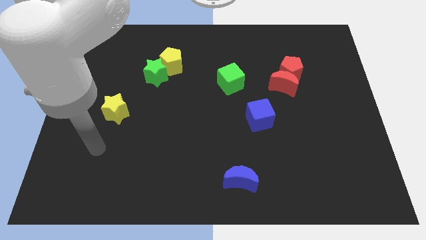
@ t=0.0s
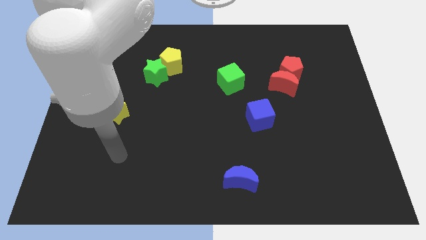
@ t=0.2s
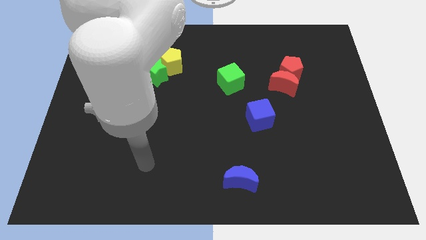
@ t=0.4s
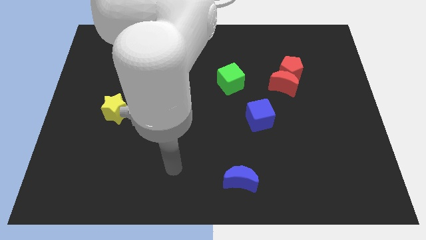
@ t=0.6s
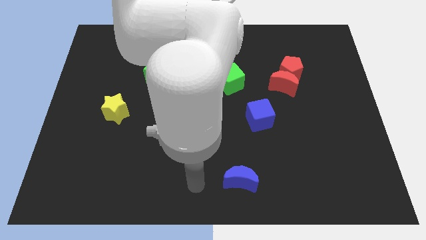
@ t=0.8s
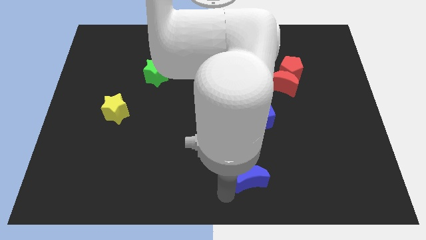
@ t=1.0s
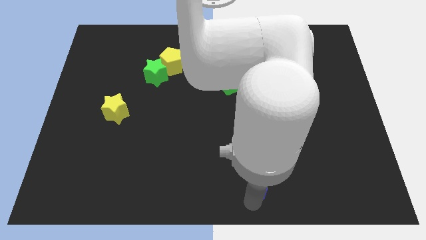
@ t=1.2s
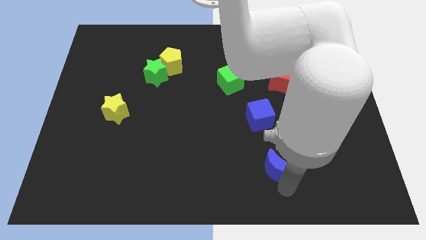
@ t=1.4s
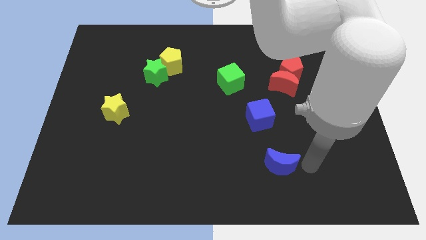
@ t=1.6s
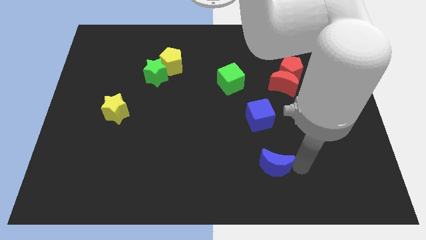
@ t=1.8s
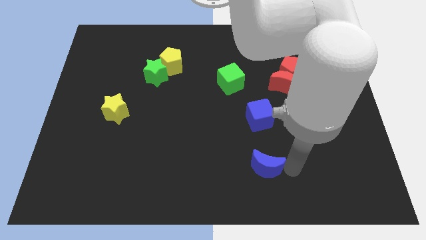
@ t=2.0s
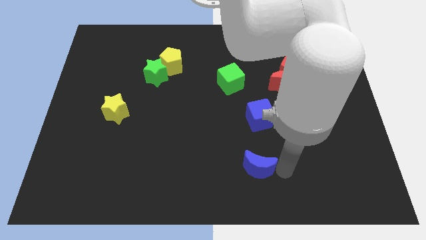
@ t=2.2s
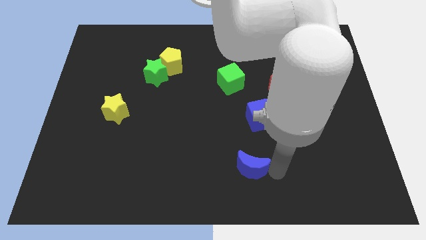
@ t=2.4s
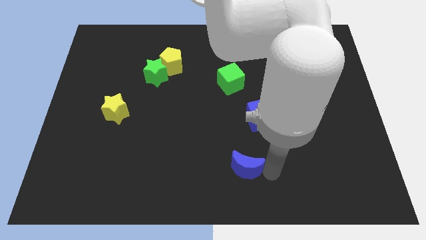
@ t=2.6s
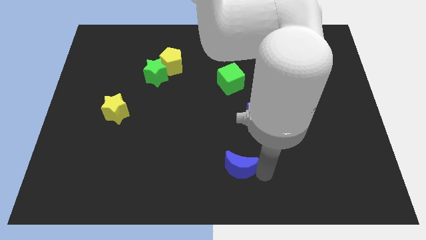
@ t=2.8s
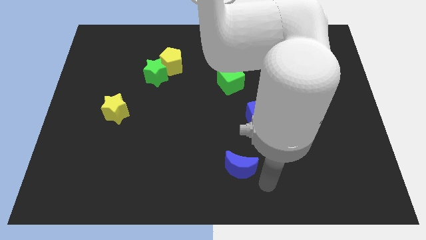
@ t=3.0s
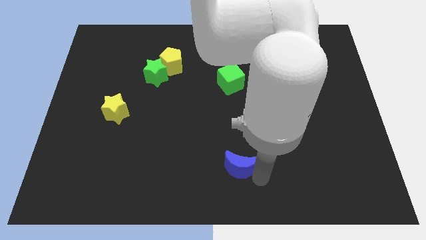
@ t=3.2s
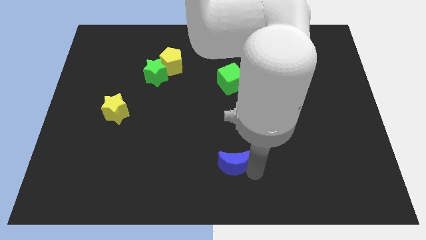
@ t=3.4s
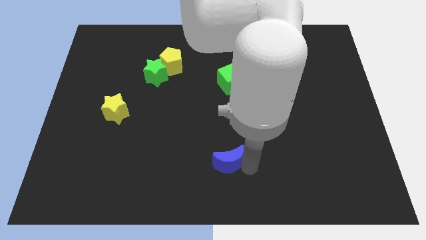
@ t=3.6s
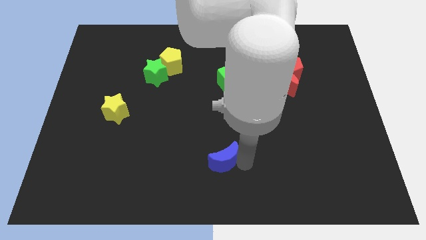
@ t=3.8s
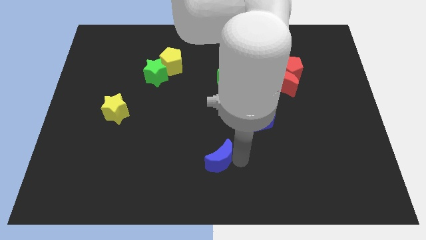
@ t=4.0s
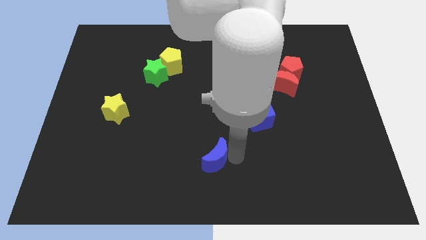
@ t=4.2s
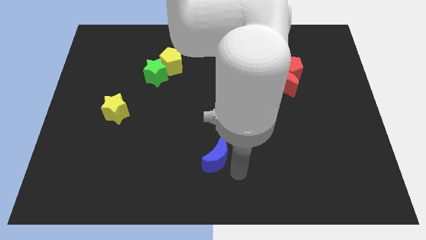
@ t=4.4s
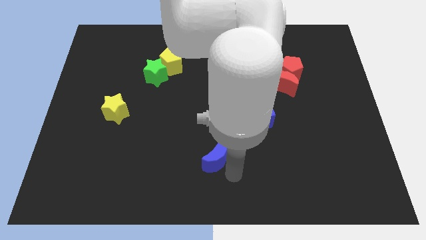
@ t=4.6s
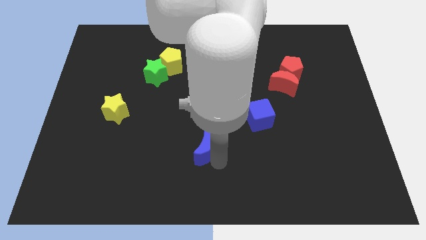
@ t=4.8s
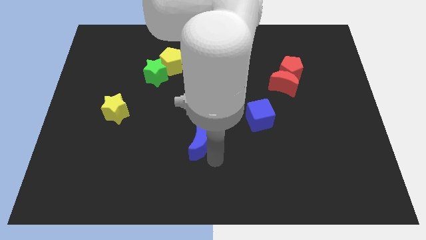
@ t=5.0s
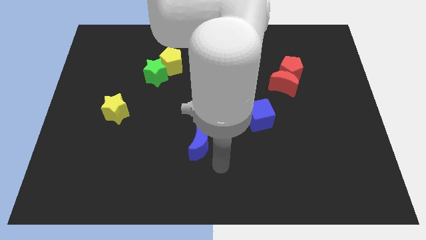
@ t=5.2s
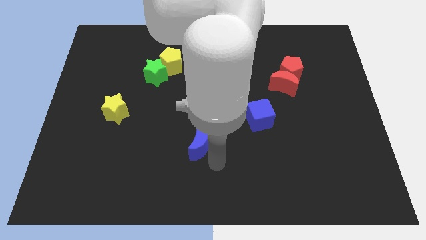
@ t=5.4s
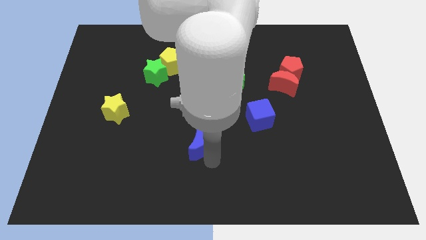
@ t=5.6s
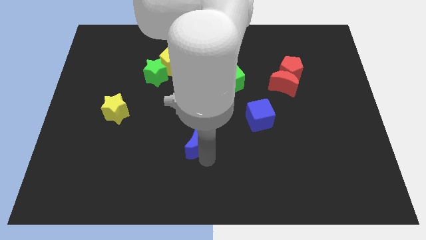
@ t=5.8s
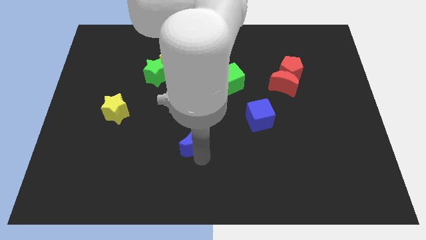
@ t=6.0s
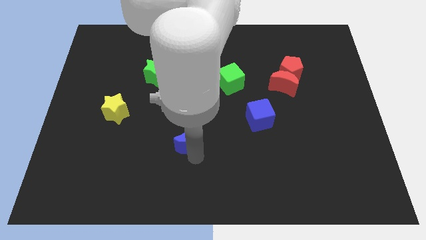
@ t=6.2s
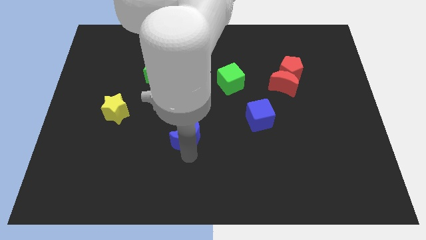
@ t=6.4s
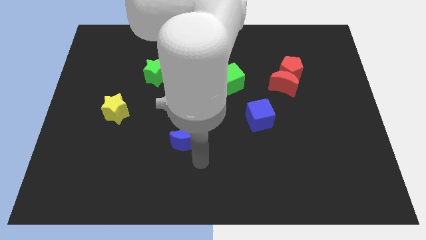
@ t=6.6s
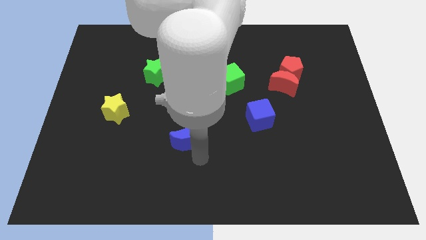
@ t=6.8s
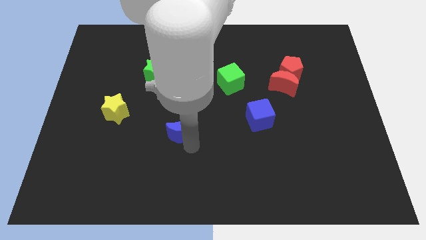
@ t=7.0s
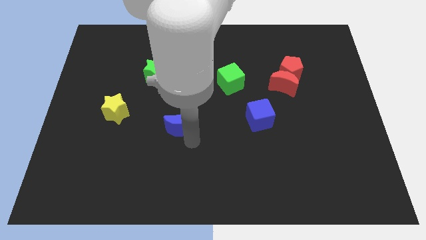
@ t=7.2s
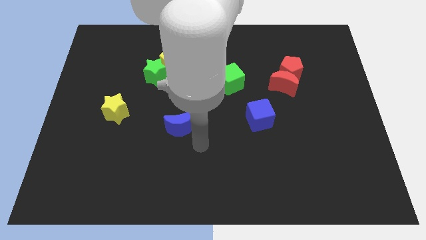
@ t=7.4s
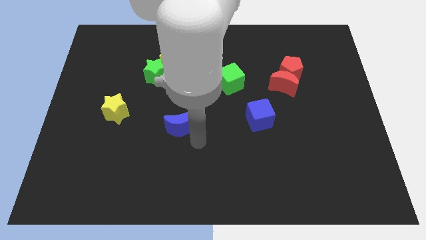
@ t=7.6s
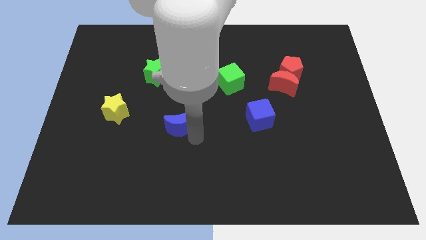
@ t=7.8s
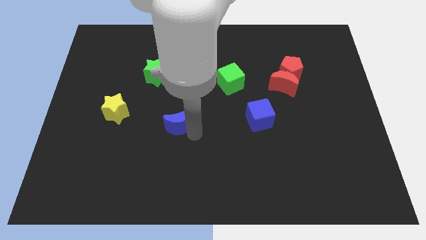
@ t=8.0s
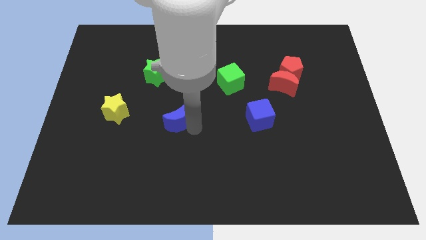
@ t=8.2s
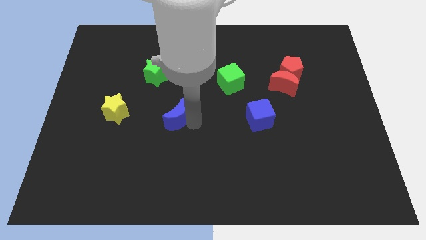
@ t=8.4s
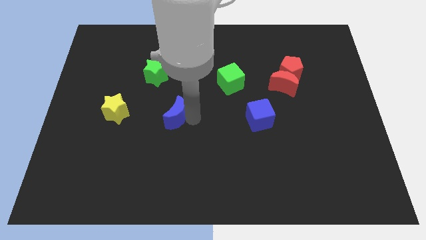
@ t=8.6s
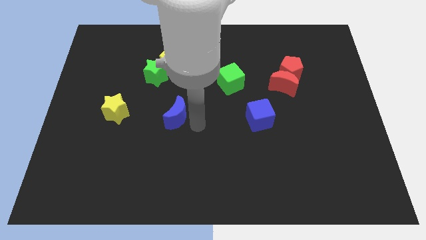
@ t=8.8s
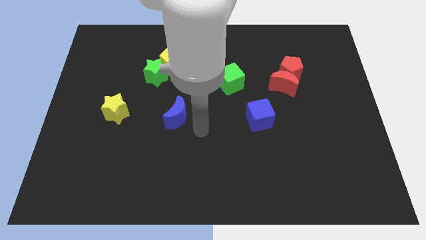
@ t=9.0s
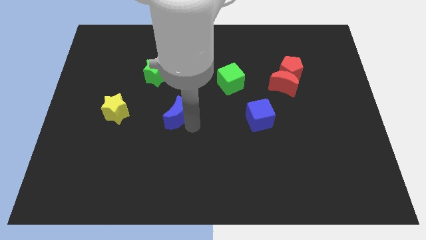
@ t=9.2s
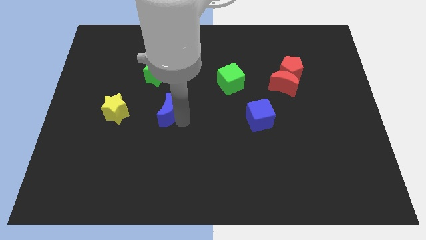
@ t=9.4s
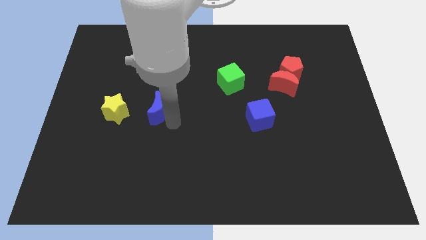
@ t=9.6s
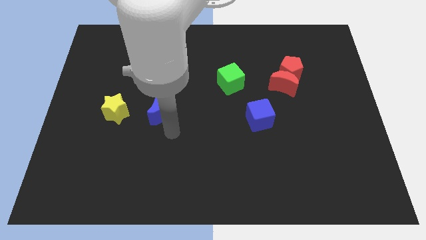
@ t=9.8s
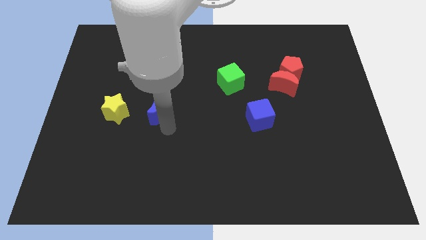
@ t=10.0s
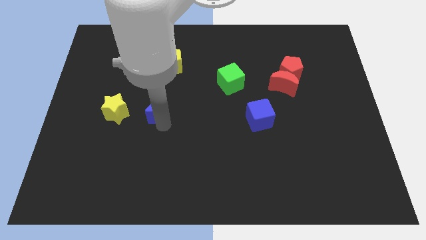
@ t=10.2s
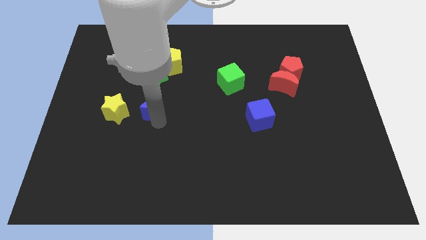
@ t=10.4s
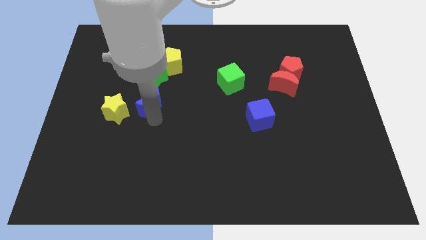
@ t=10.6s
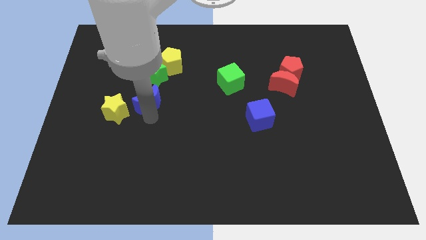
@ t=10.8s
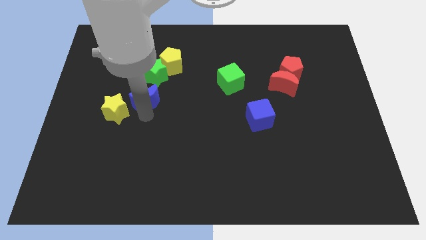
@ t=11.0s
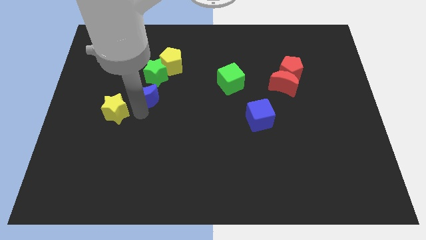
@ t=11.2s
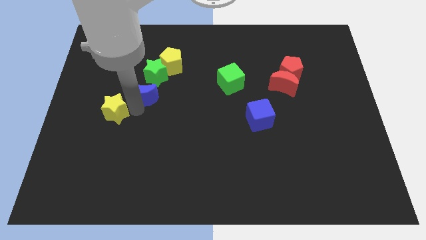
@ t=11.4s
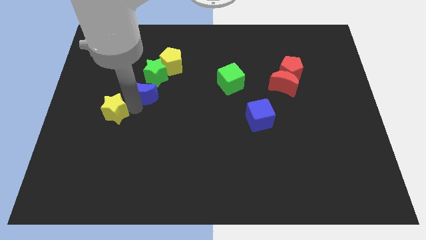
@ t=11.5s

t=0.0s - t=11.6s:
move the blue moon to the bottom left of the yellow pentagon

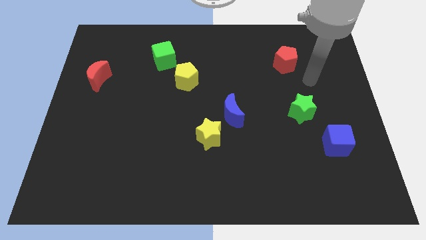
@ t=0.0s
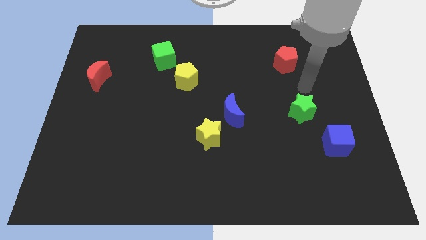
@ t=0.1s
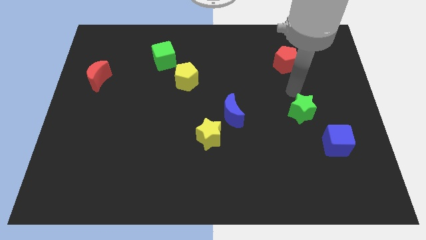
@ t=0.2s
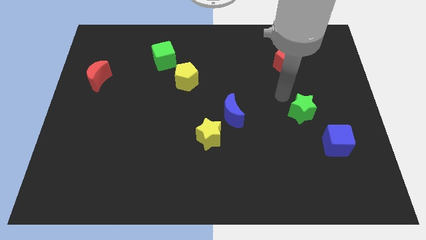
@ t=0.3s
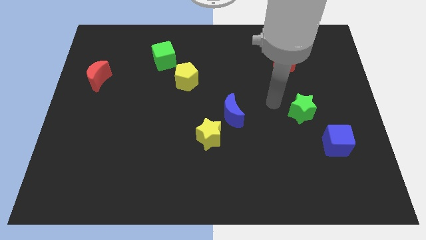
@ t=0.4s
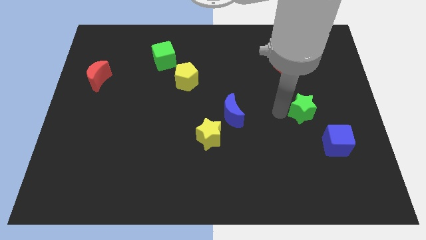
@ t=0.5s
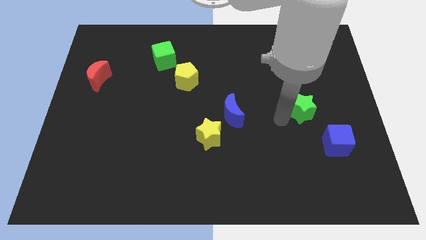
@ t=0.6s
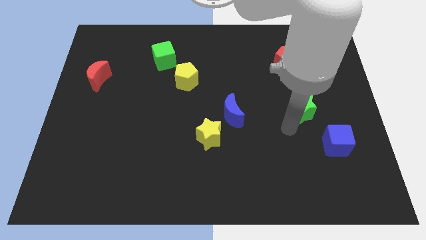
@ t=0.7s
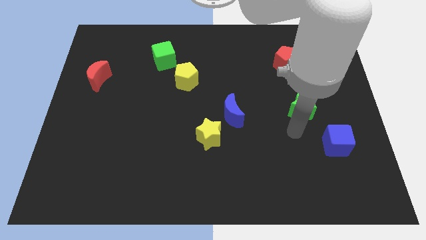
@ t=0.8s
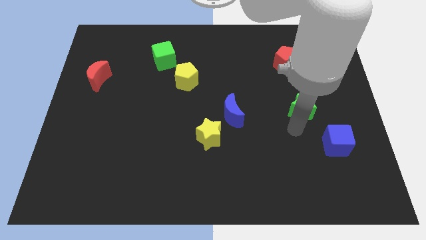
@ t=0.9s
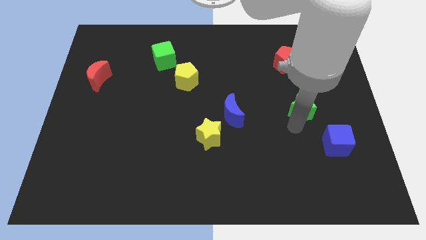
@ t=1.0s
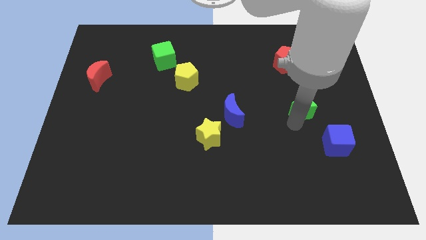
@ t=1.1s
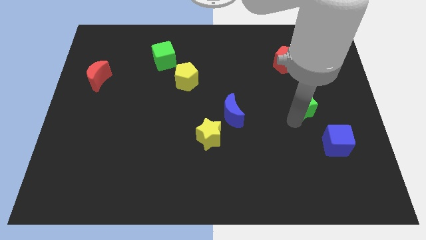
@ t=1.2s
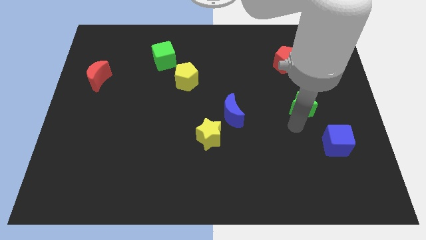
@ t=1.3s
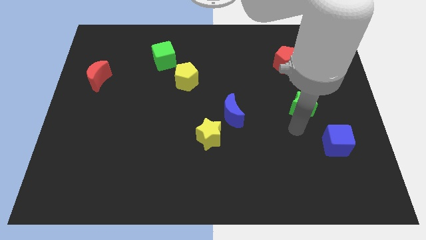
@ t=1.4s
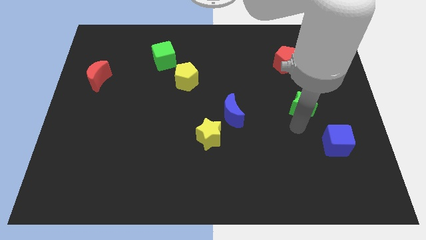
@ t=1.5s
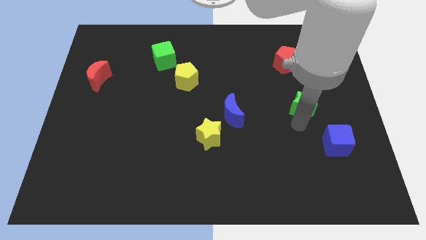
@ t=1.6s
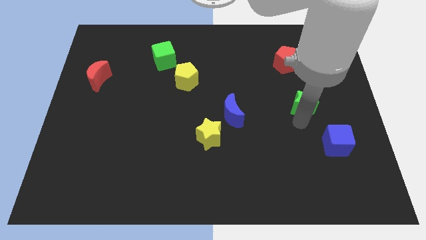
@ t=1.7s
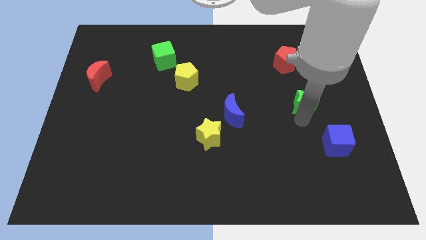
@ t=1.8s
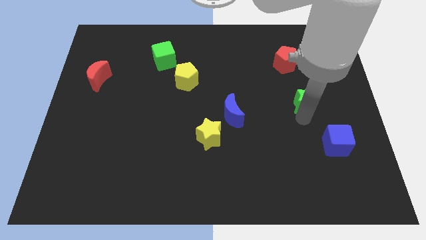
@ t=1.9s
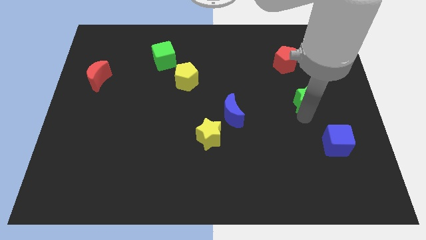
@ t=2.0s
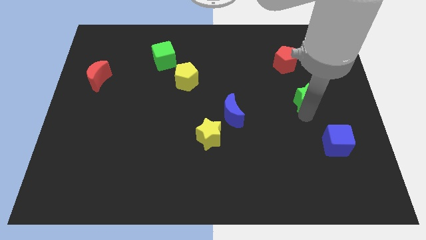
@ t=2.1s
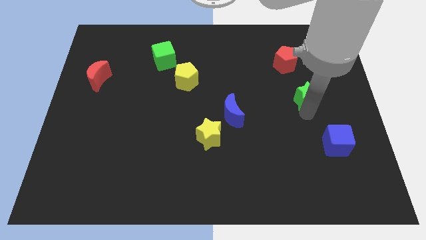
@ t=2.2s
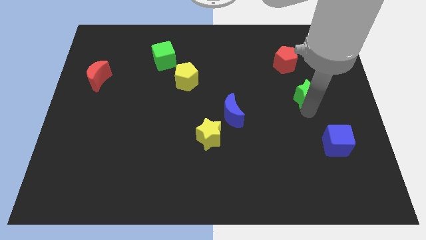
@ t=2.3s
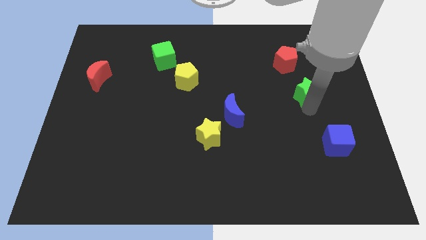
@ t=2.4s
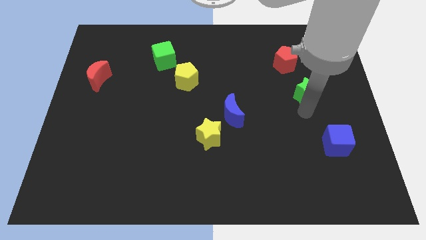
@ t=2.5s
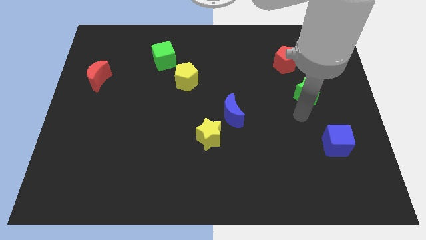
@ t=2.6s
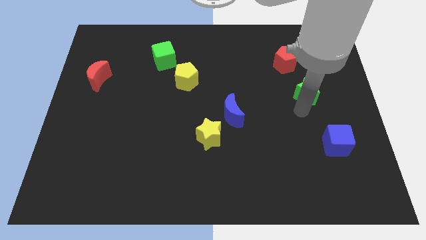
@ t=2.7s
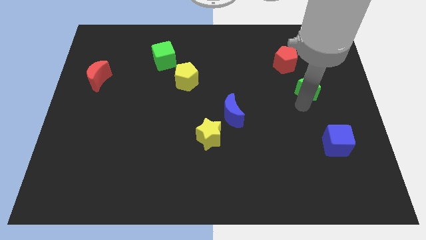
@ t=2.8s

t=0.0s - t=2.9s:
move the green star to the bottom right of the red pentagon
